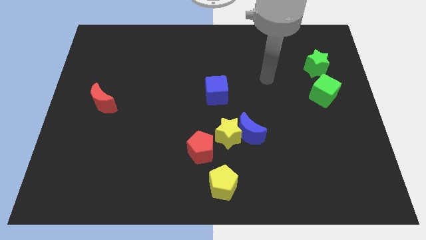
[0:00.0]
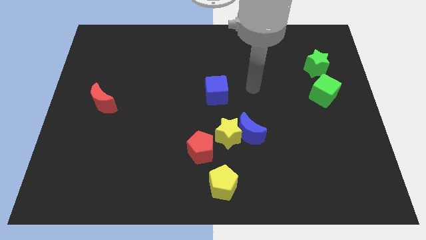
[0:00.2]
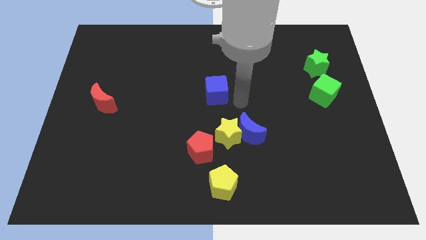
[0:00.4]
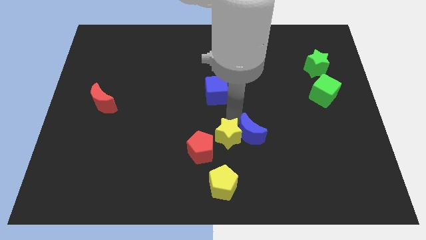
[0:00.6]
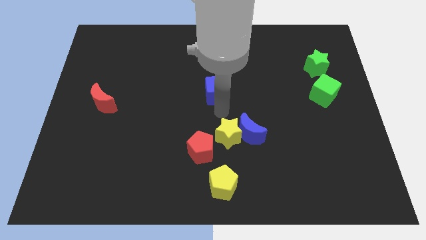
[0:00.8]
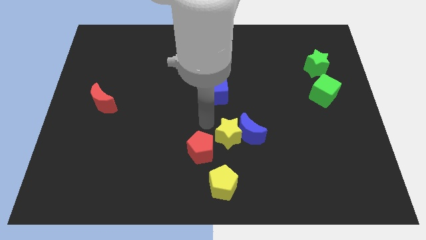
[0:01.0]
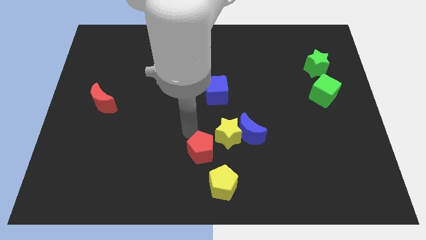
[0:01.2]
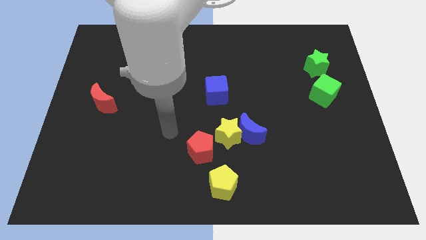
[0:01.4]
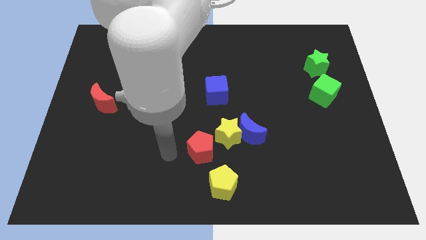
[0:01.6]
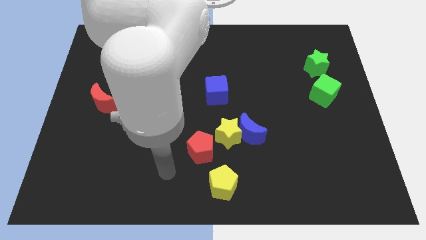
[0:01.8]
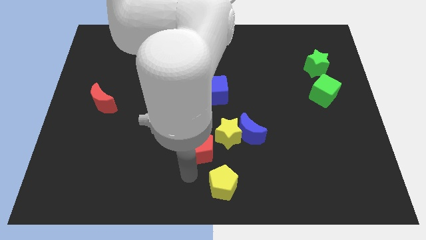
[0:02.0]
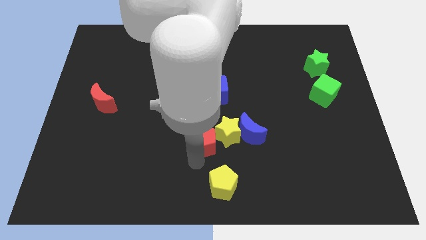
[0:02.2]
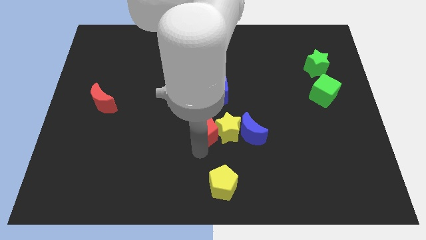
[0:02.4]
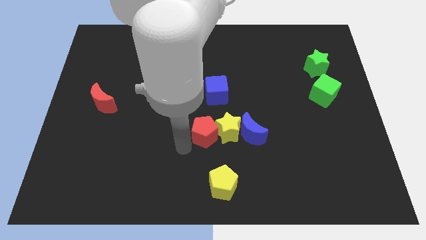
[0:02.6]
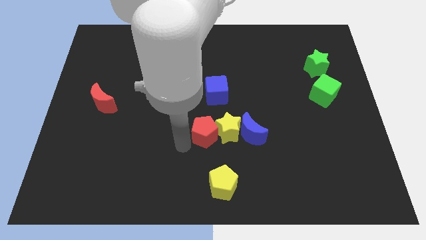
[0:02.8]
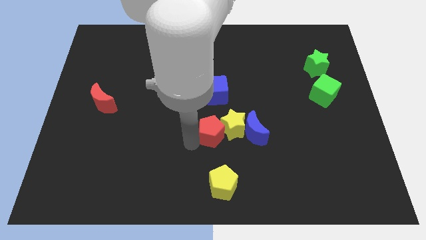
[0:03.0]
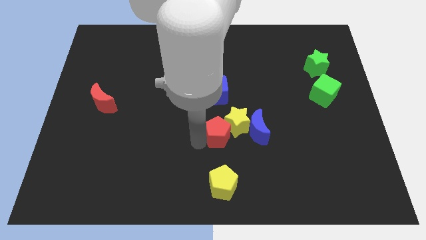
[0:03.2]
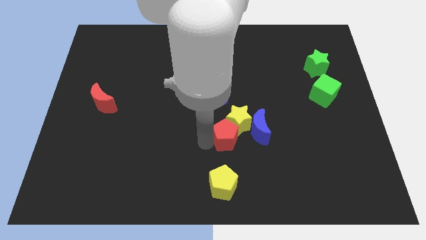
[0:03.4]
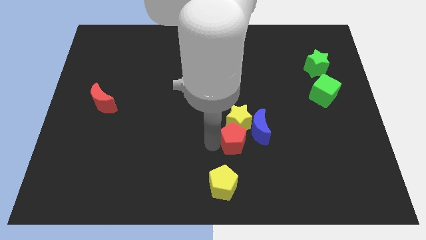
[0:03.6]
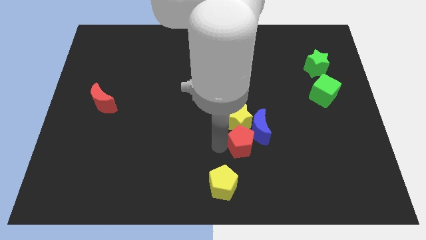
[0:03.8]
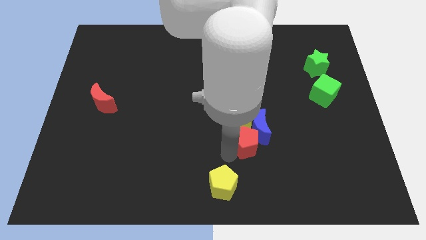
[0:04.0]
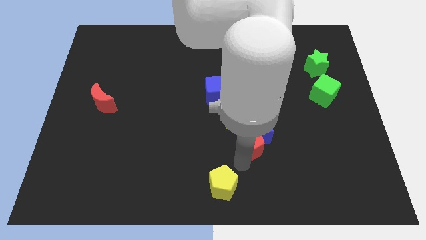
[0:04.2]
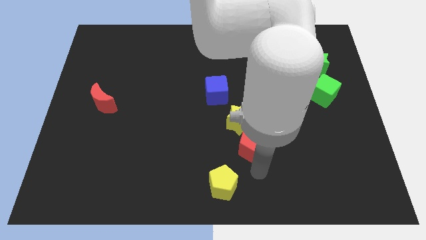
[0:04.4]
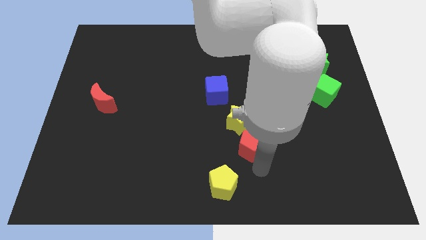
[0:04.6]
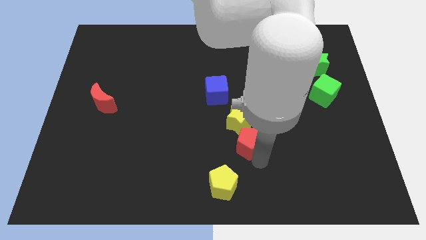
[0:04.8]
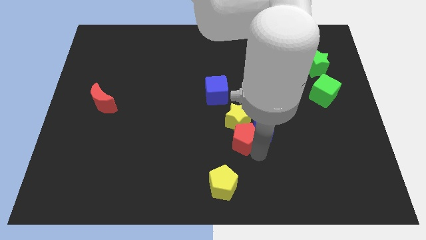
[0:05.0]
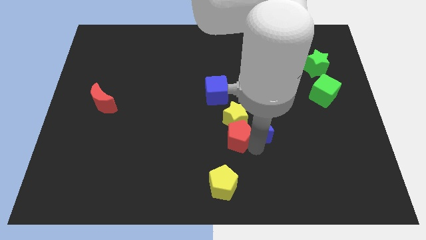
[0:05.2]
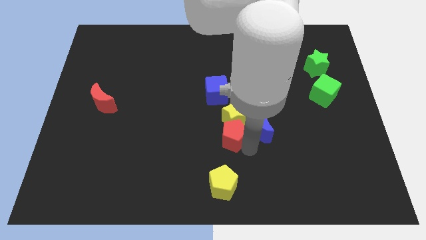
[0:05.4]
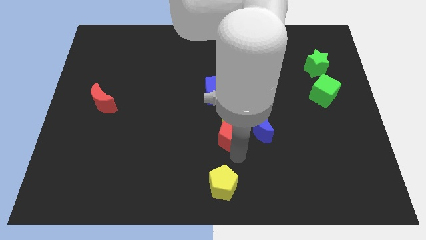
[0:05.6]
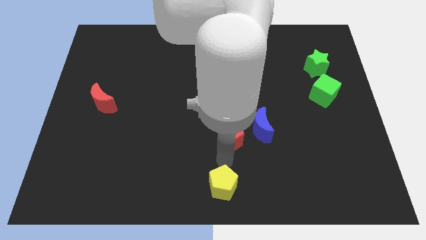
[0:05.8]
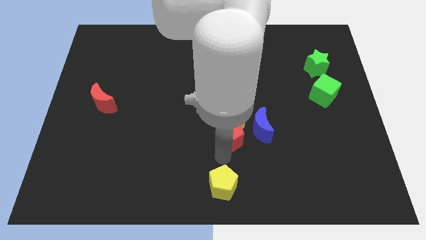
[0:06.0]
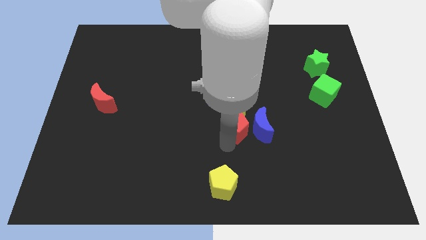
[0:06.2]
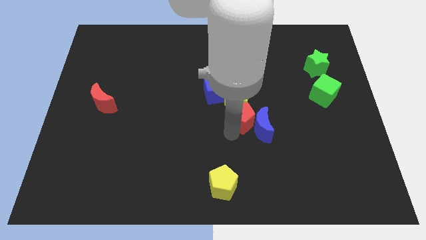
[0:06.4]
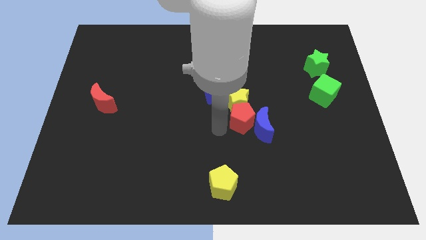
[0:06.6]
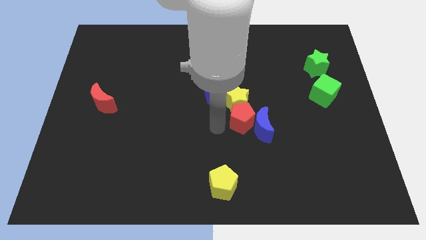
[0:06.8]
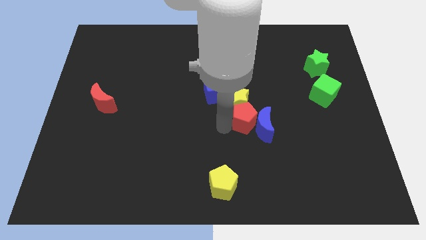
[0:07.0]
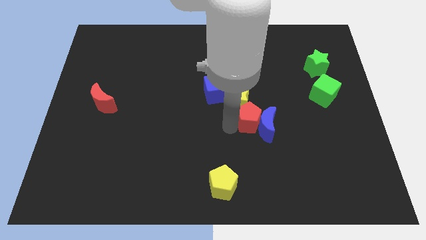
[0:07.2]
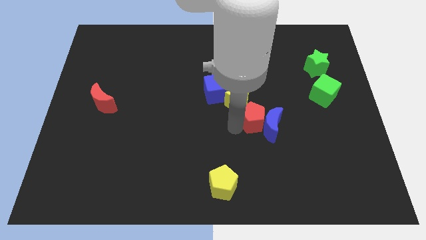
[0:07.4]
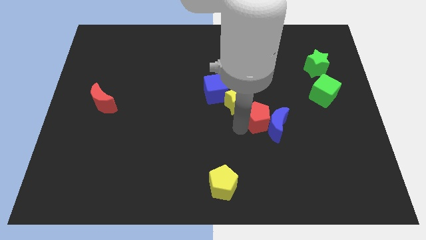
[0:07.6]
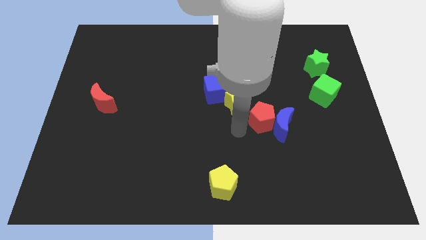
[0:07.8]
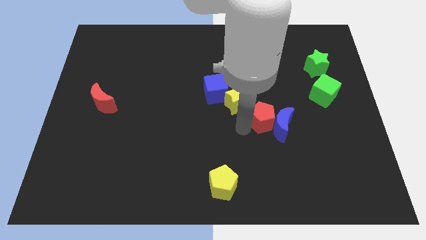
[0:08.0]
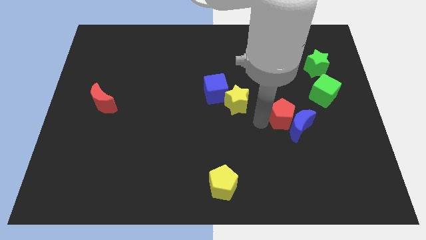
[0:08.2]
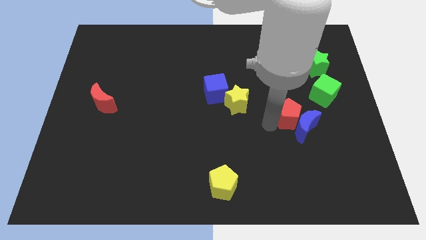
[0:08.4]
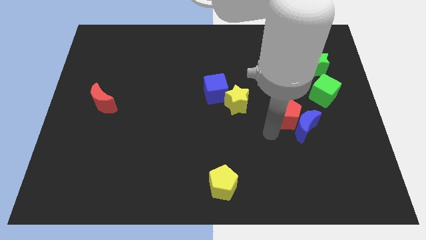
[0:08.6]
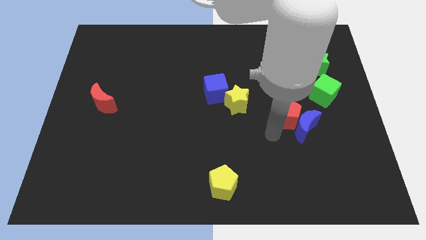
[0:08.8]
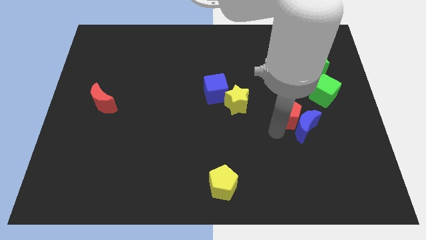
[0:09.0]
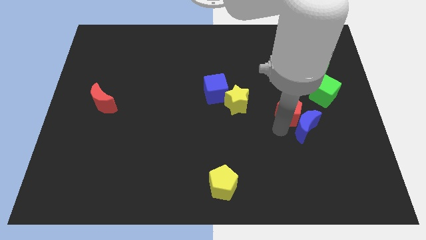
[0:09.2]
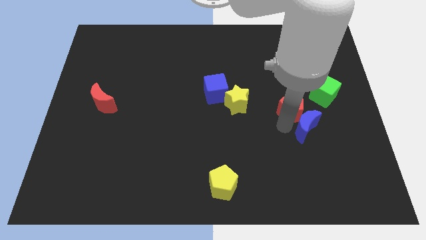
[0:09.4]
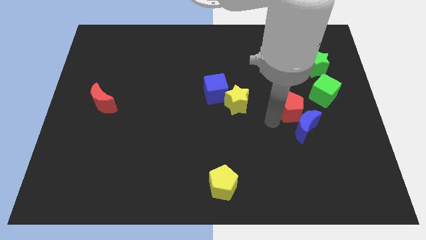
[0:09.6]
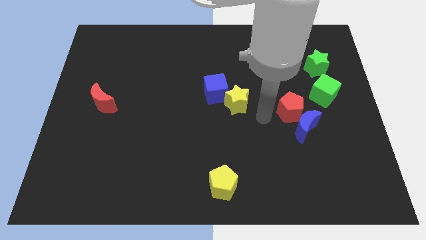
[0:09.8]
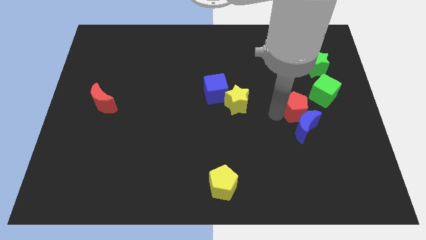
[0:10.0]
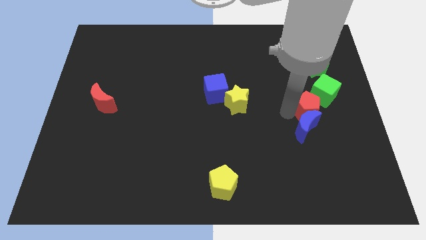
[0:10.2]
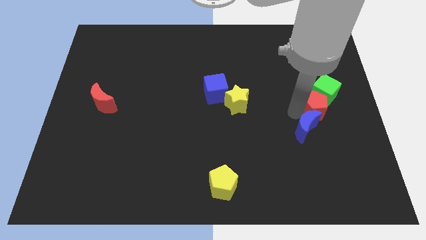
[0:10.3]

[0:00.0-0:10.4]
push the red pentagon close to the green cube

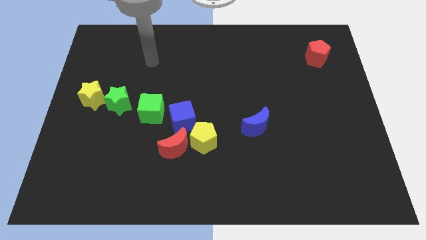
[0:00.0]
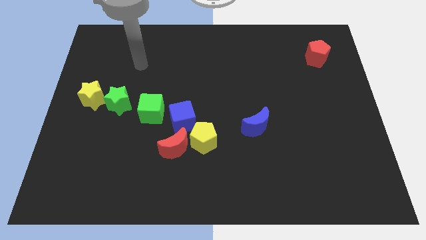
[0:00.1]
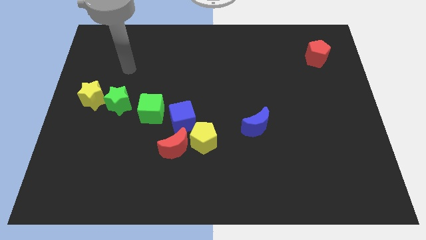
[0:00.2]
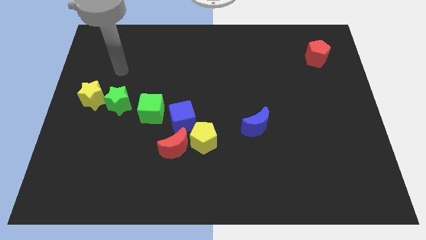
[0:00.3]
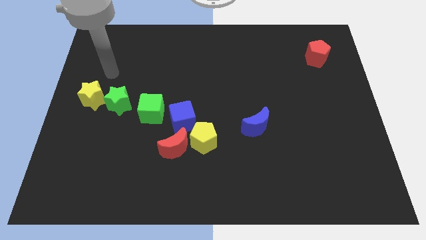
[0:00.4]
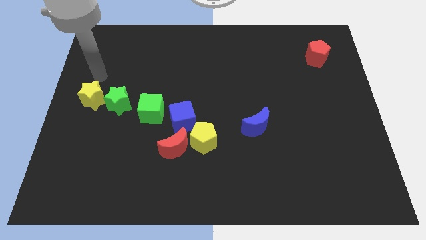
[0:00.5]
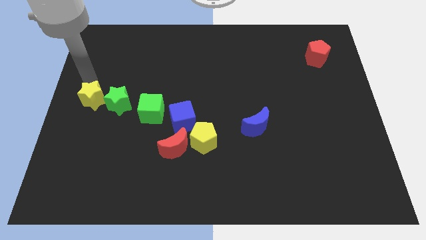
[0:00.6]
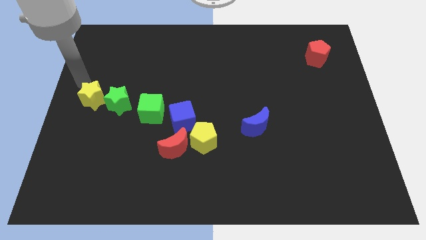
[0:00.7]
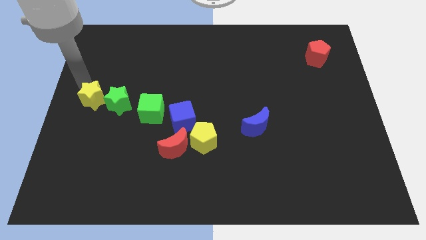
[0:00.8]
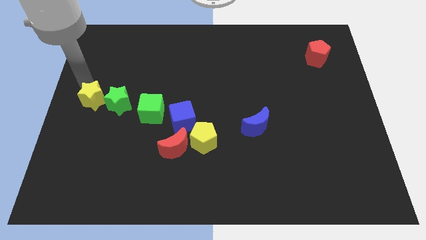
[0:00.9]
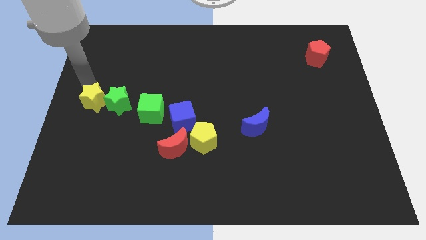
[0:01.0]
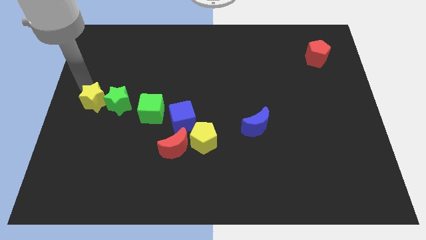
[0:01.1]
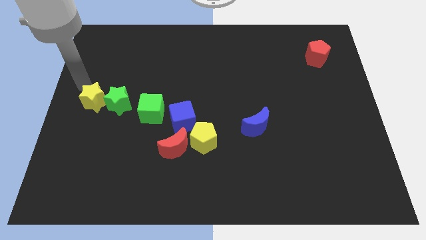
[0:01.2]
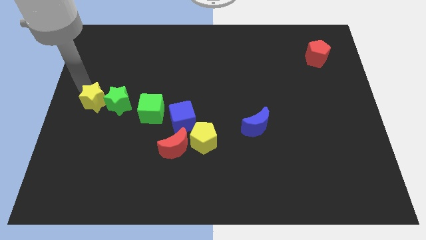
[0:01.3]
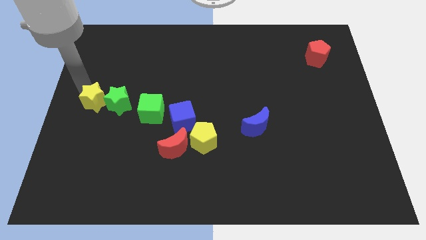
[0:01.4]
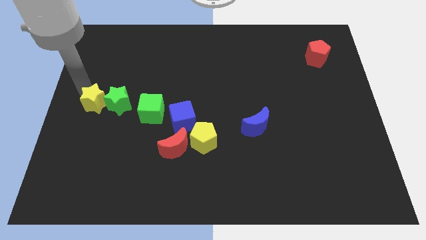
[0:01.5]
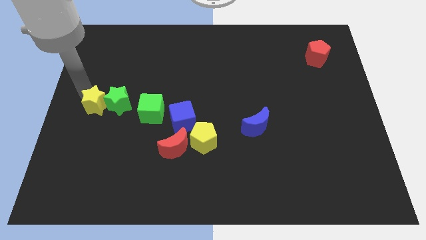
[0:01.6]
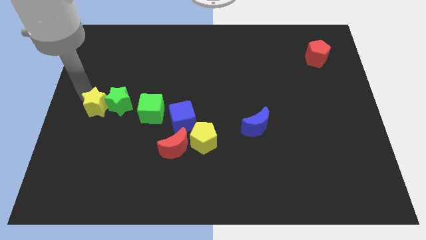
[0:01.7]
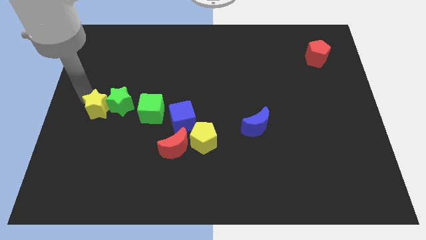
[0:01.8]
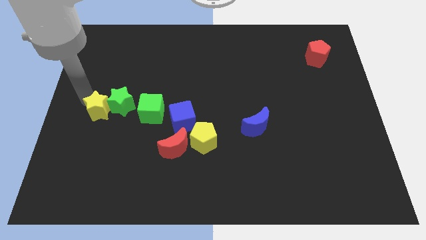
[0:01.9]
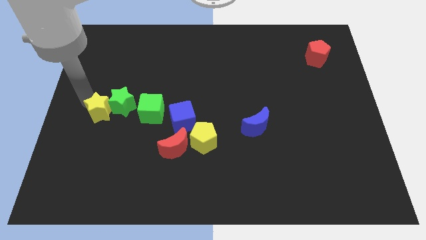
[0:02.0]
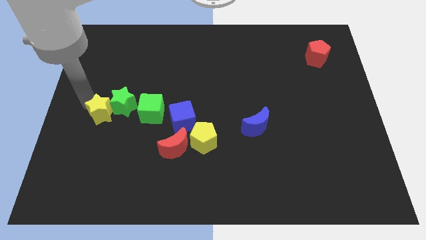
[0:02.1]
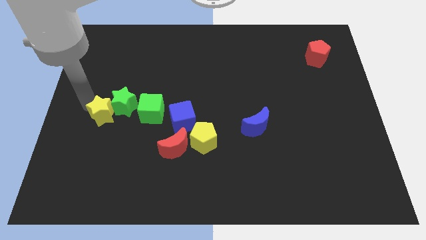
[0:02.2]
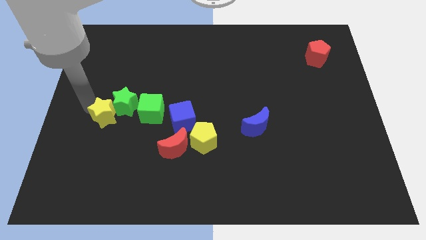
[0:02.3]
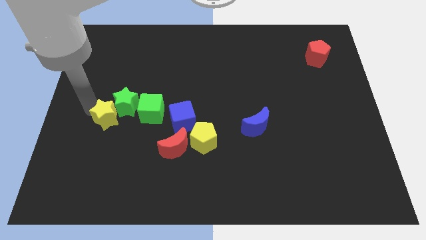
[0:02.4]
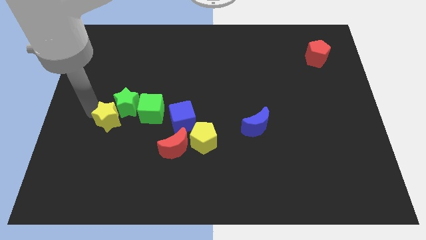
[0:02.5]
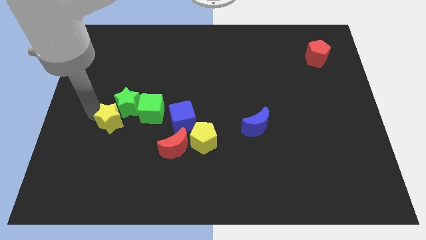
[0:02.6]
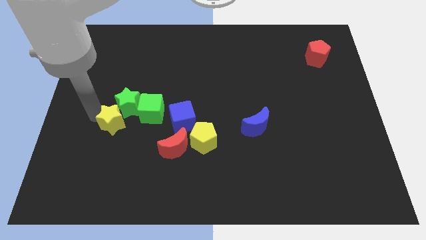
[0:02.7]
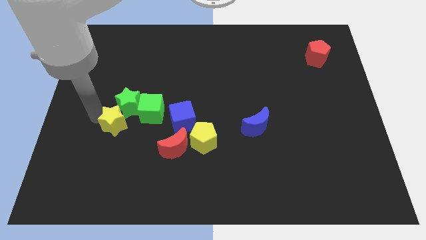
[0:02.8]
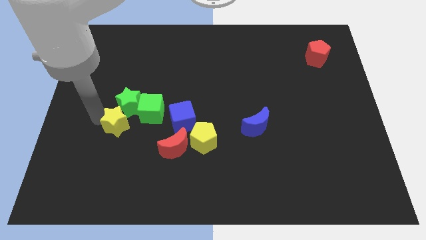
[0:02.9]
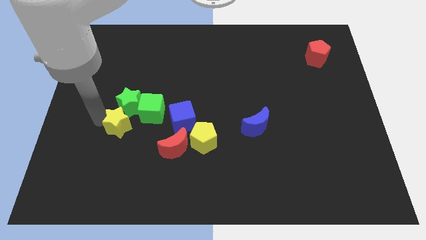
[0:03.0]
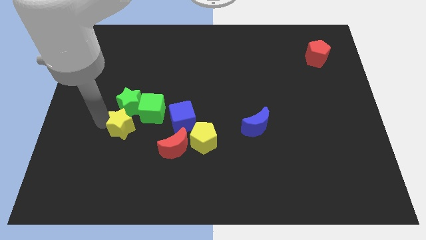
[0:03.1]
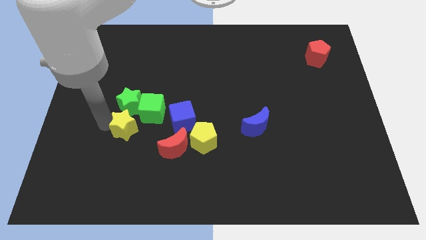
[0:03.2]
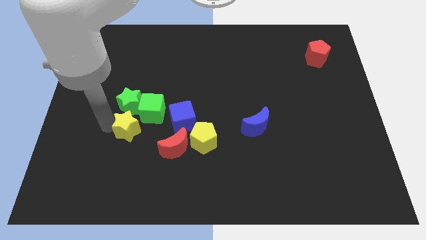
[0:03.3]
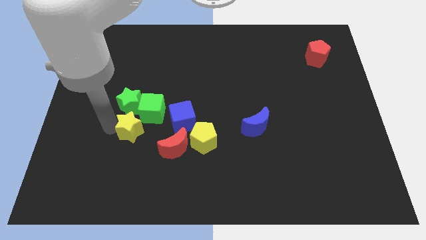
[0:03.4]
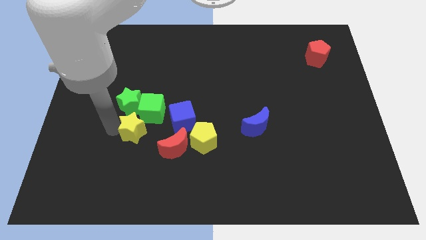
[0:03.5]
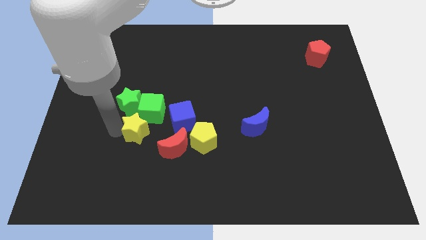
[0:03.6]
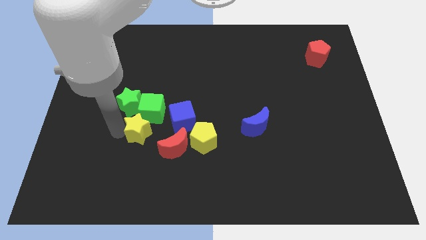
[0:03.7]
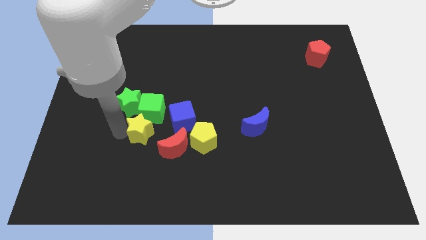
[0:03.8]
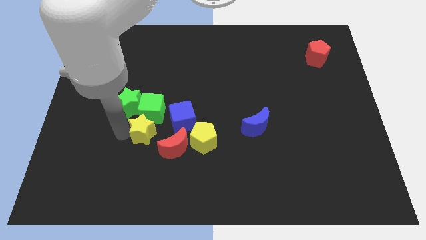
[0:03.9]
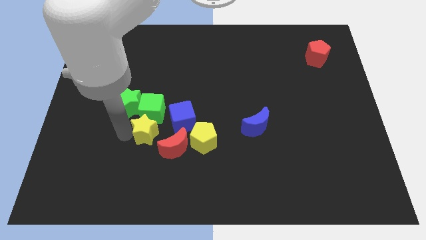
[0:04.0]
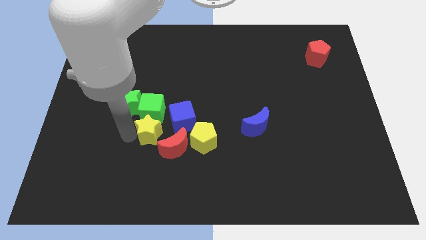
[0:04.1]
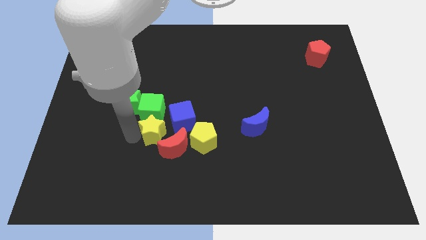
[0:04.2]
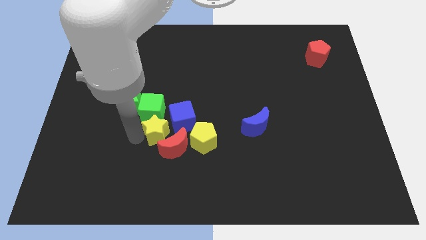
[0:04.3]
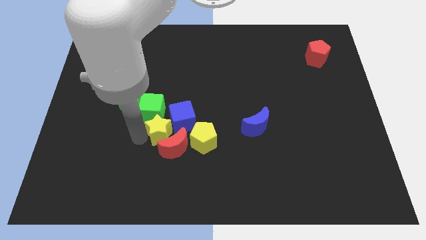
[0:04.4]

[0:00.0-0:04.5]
move the yellow star towards the blue cube
